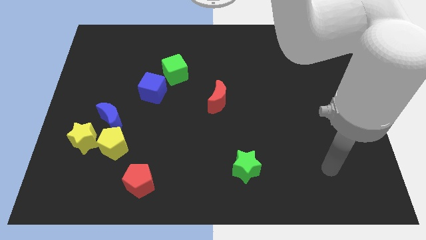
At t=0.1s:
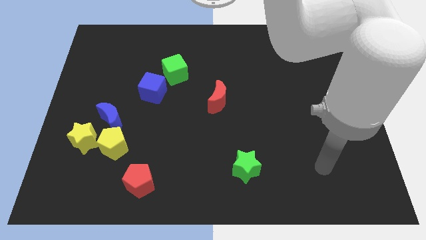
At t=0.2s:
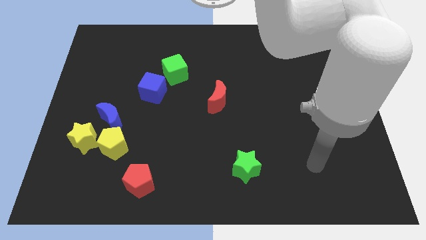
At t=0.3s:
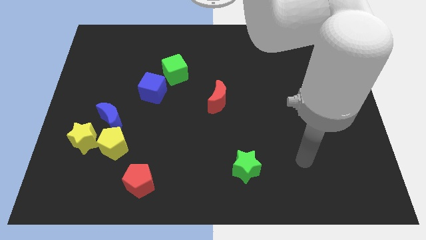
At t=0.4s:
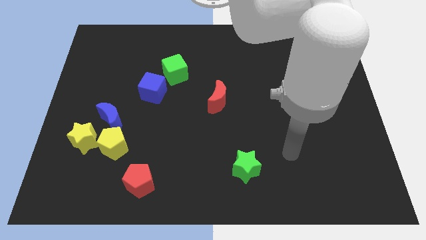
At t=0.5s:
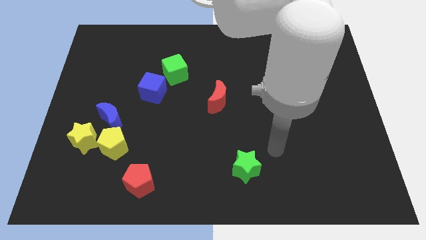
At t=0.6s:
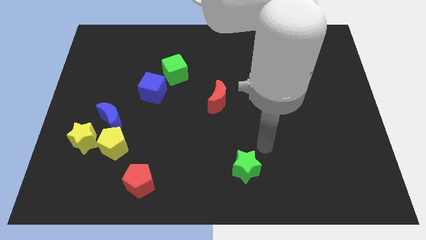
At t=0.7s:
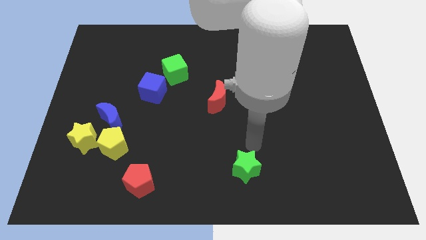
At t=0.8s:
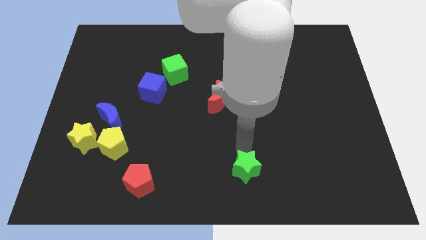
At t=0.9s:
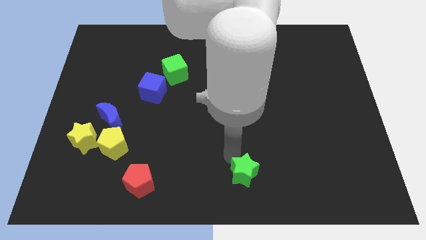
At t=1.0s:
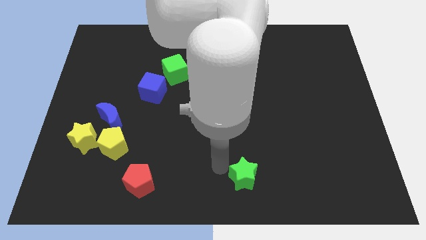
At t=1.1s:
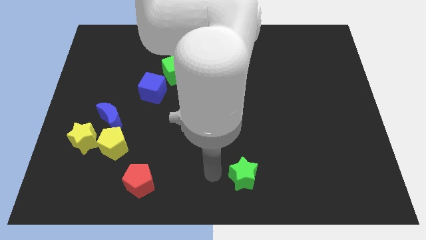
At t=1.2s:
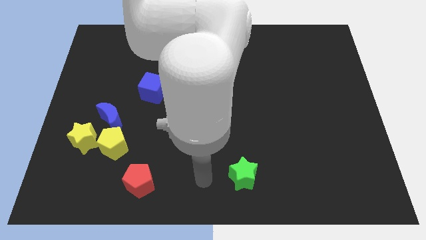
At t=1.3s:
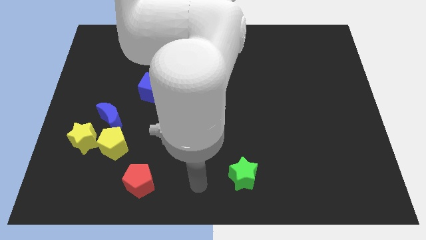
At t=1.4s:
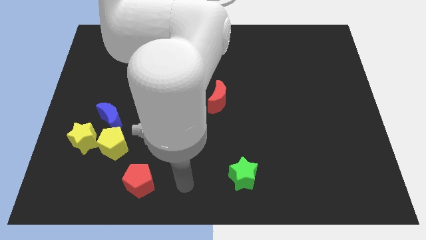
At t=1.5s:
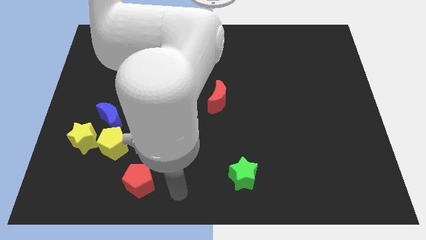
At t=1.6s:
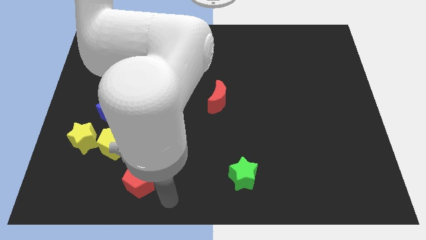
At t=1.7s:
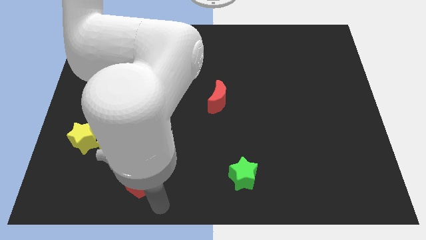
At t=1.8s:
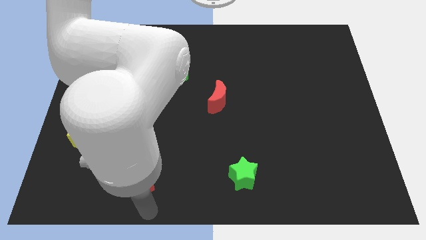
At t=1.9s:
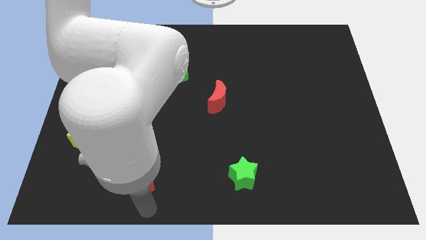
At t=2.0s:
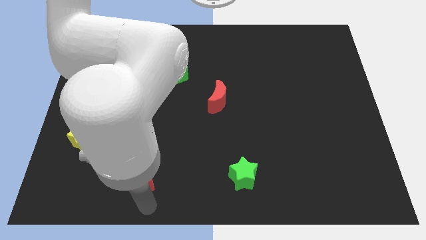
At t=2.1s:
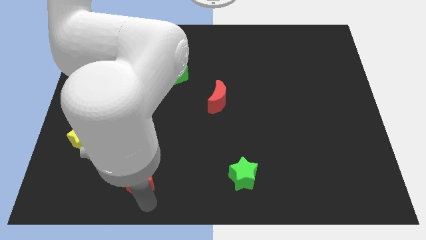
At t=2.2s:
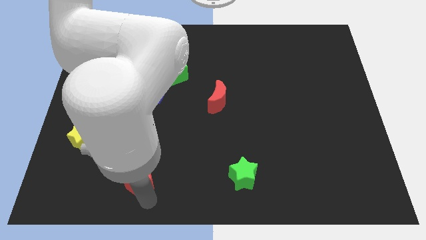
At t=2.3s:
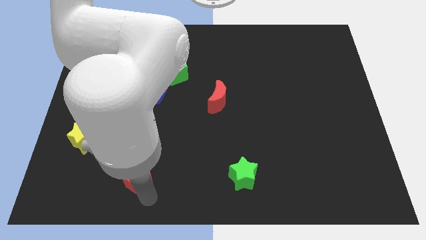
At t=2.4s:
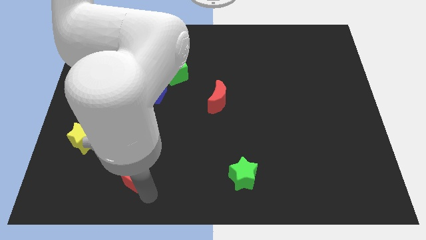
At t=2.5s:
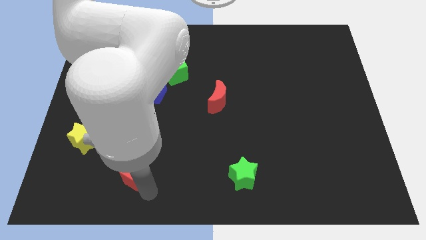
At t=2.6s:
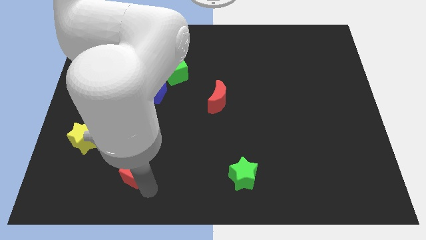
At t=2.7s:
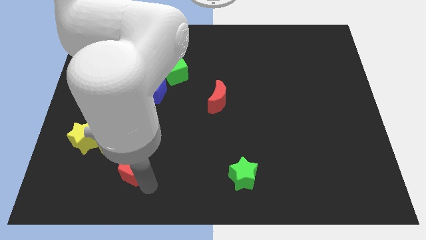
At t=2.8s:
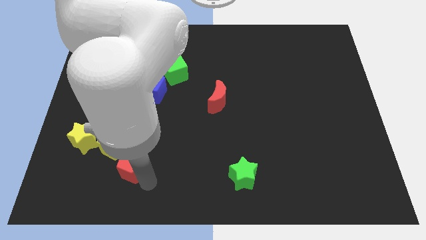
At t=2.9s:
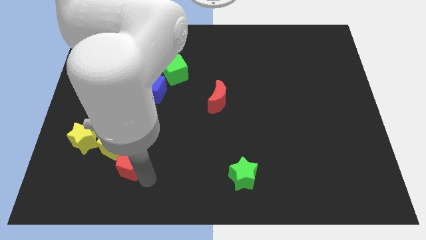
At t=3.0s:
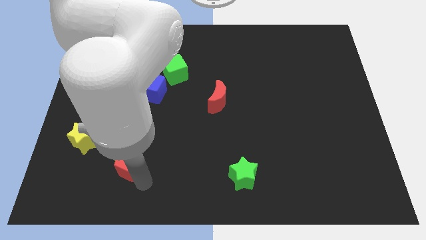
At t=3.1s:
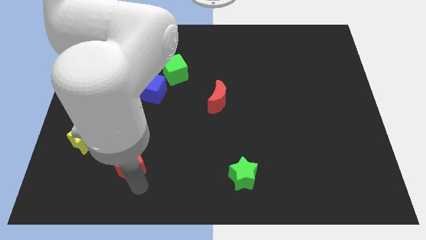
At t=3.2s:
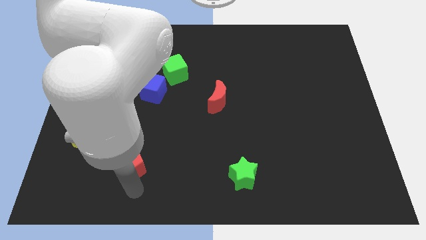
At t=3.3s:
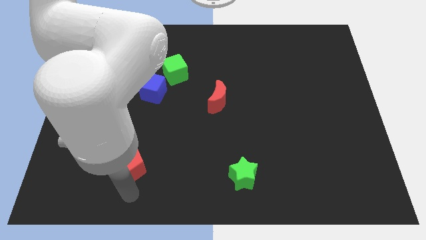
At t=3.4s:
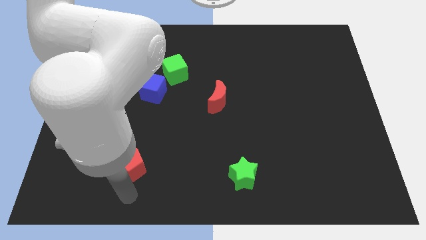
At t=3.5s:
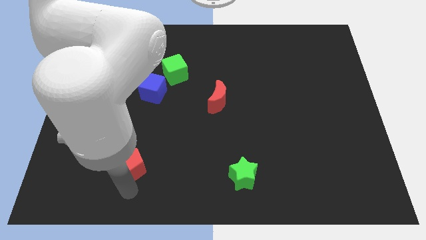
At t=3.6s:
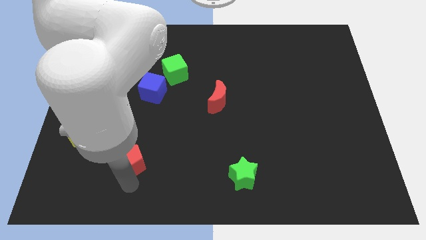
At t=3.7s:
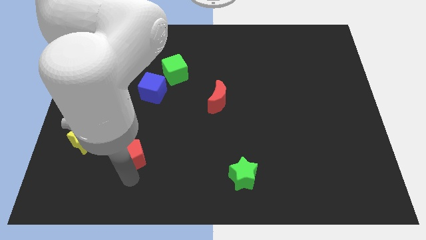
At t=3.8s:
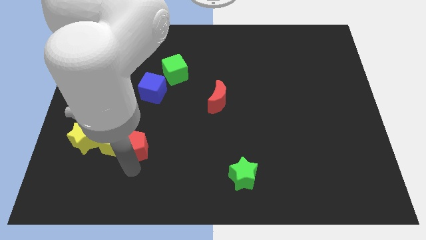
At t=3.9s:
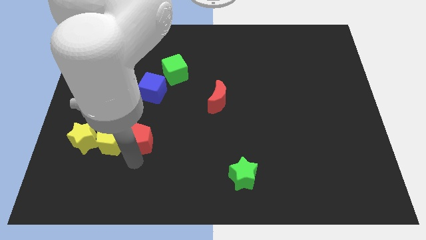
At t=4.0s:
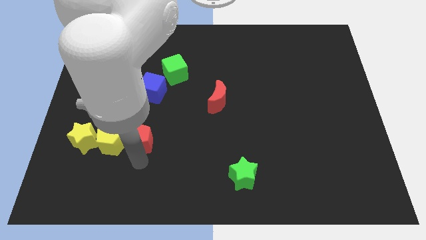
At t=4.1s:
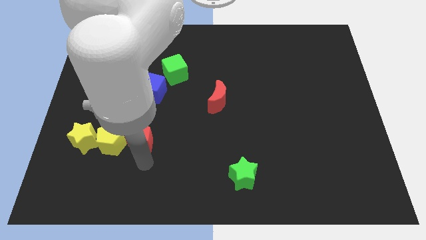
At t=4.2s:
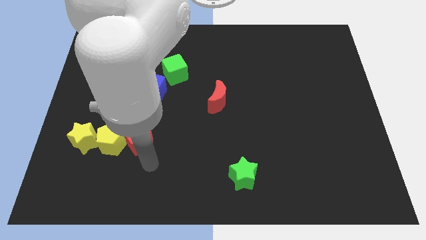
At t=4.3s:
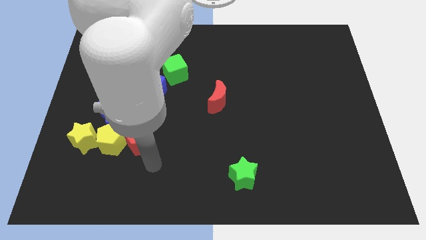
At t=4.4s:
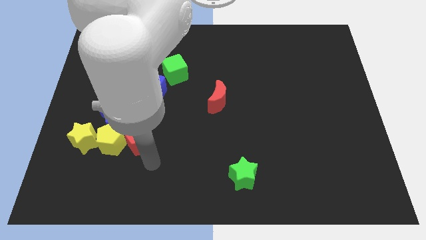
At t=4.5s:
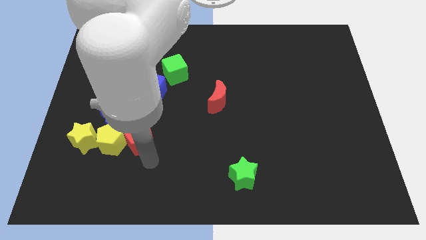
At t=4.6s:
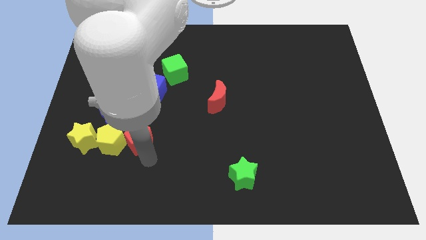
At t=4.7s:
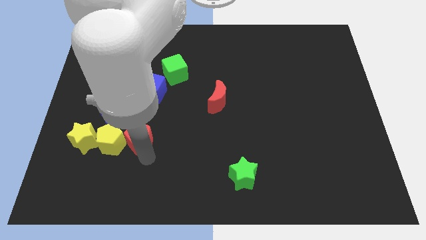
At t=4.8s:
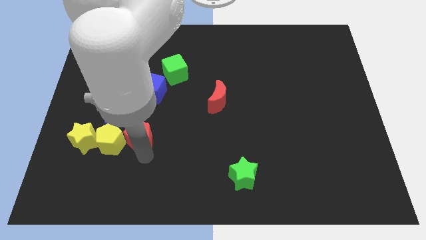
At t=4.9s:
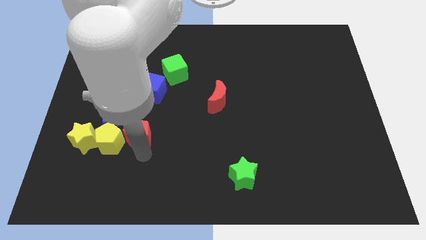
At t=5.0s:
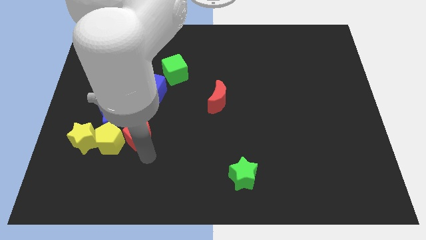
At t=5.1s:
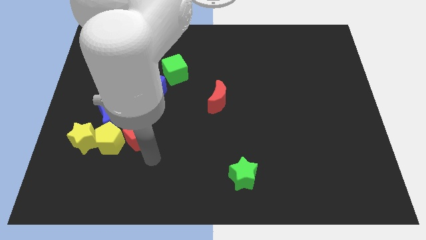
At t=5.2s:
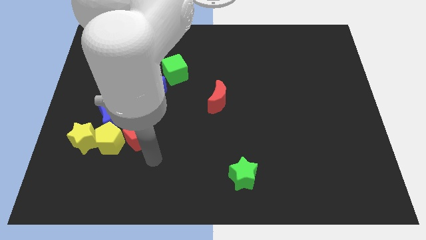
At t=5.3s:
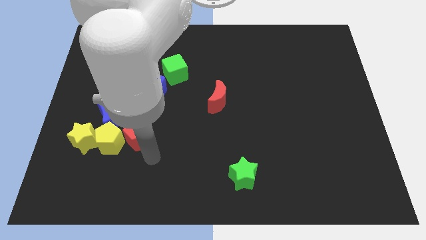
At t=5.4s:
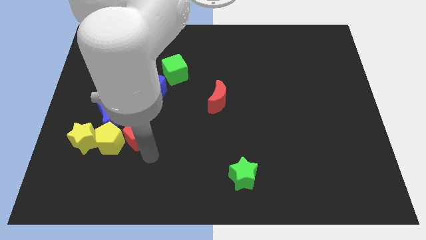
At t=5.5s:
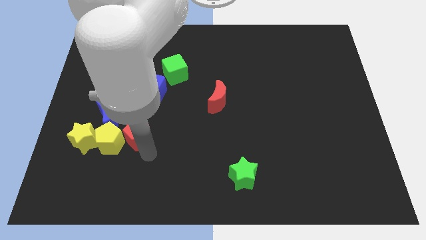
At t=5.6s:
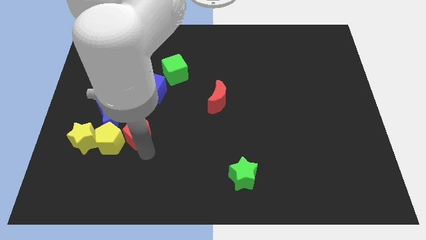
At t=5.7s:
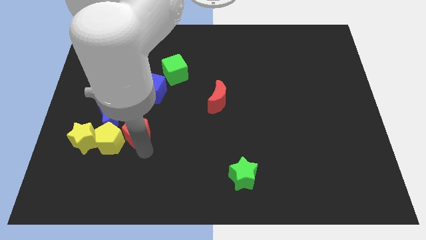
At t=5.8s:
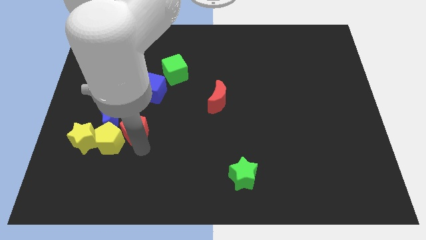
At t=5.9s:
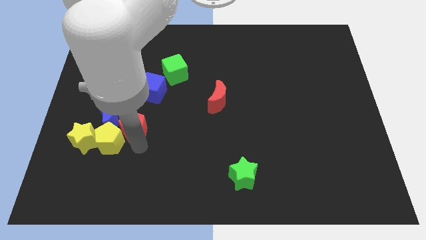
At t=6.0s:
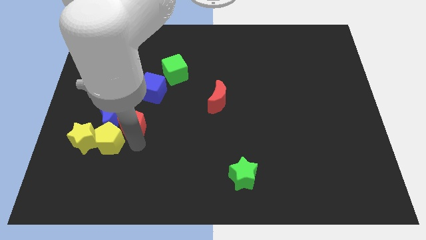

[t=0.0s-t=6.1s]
put the red pentagon to the blue moon

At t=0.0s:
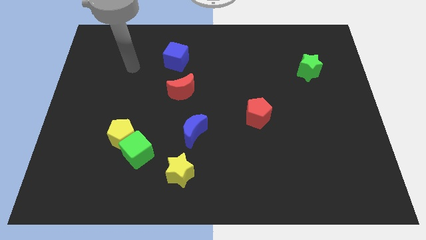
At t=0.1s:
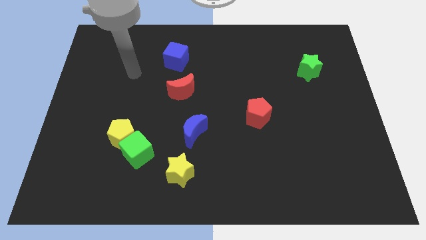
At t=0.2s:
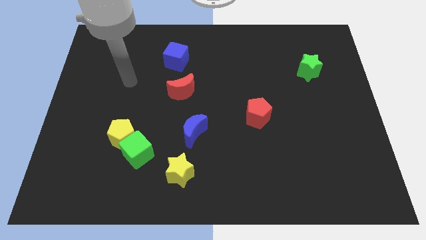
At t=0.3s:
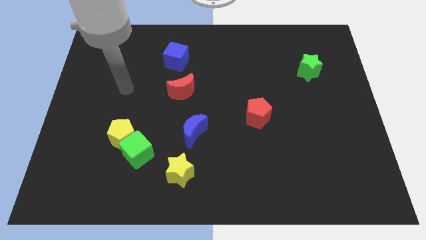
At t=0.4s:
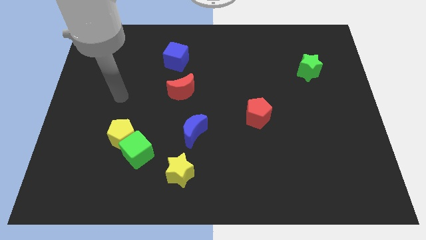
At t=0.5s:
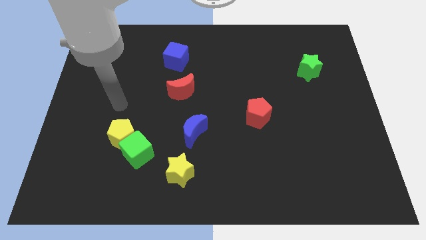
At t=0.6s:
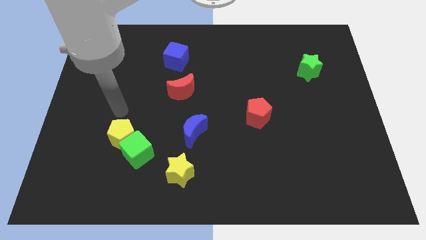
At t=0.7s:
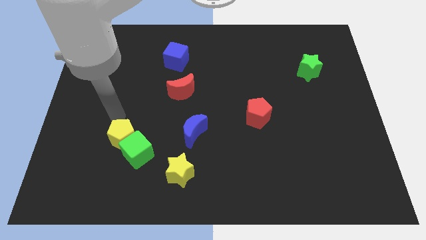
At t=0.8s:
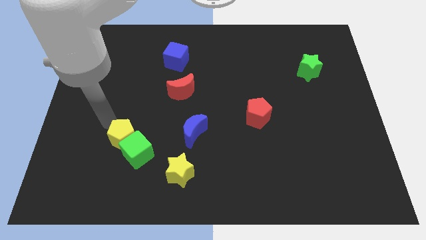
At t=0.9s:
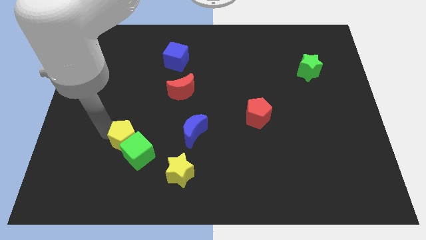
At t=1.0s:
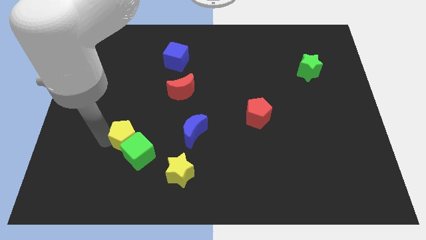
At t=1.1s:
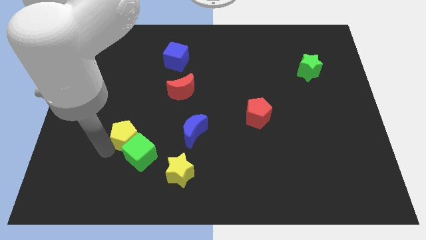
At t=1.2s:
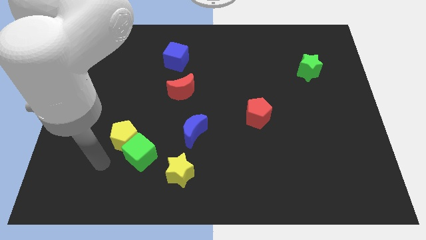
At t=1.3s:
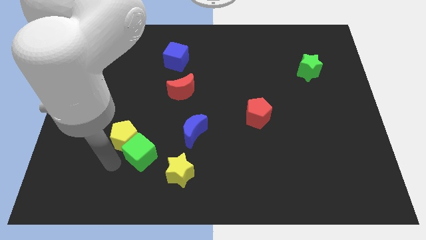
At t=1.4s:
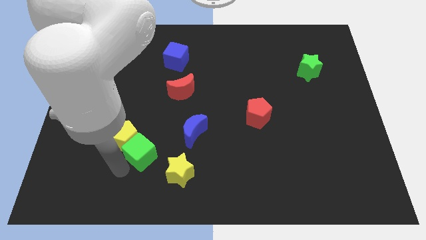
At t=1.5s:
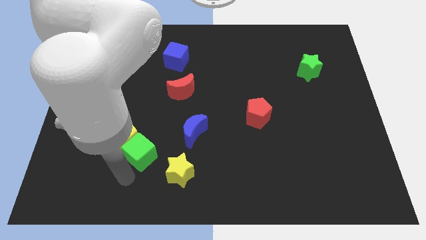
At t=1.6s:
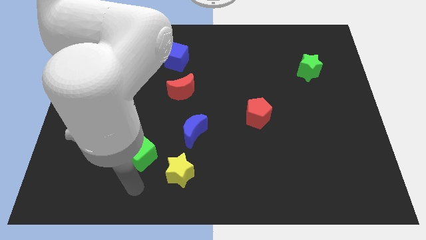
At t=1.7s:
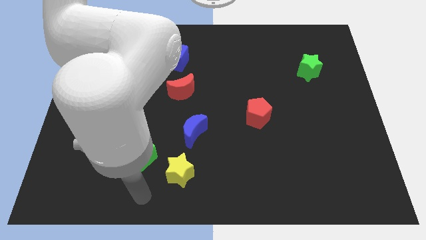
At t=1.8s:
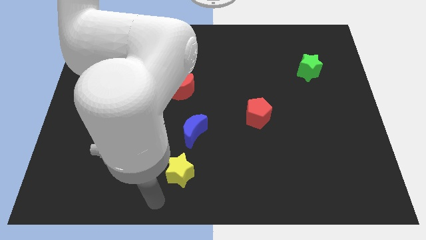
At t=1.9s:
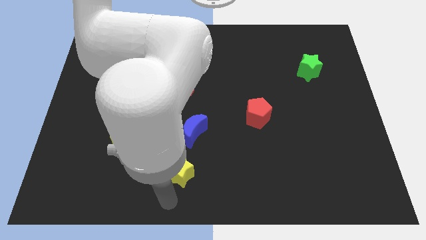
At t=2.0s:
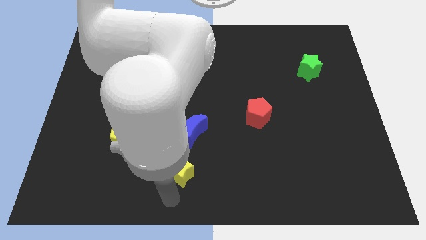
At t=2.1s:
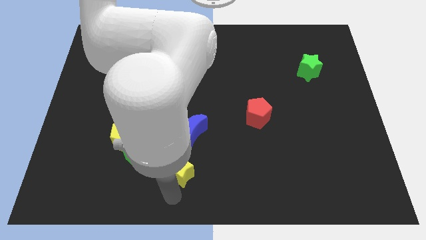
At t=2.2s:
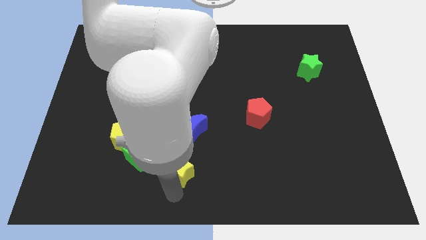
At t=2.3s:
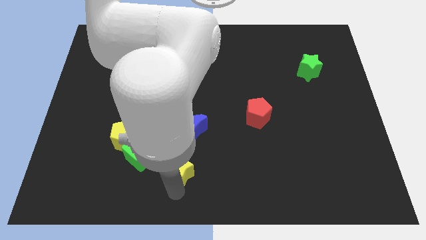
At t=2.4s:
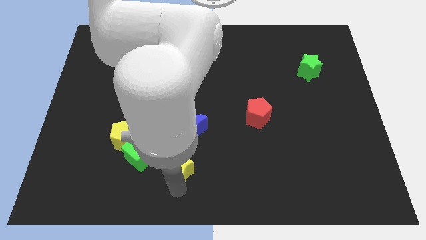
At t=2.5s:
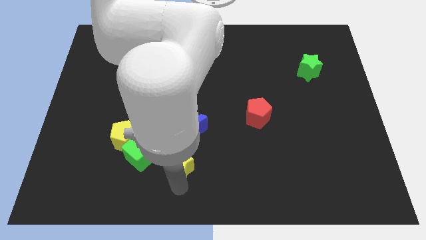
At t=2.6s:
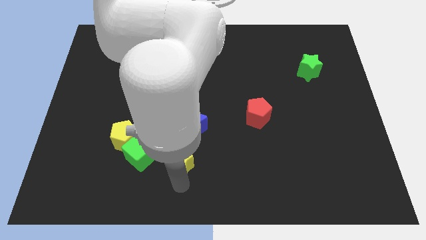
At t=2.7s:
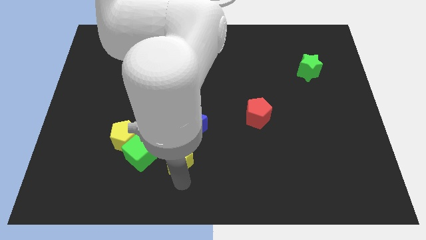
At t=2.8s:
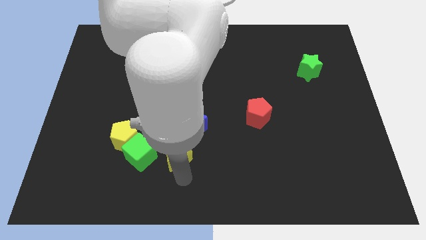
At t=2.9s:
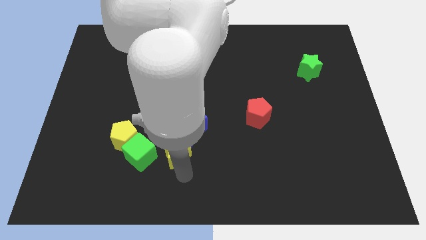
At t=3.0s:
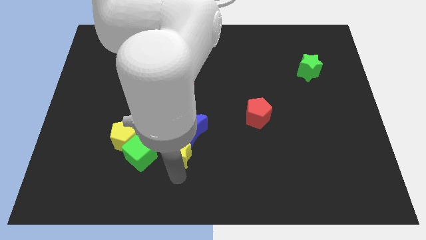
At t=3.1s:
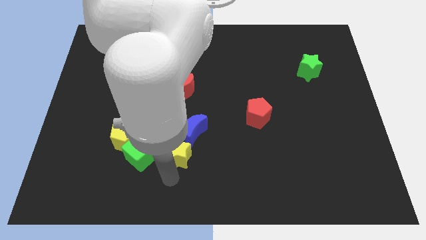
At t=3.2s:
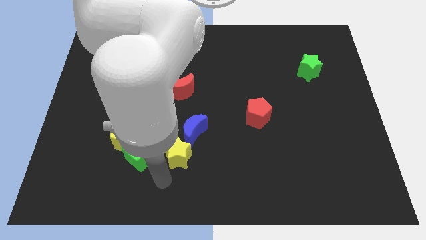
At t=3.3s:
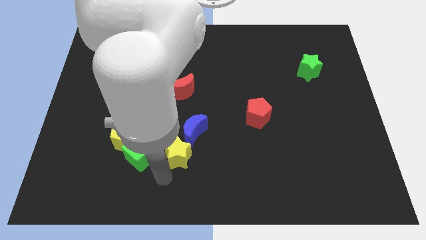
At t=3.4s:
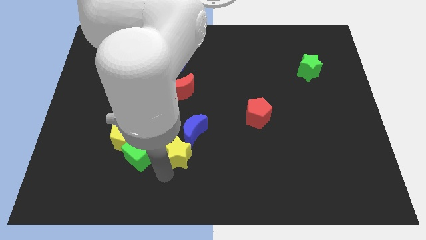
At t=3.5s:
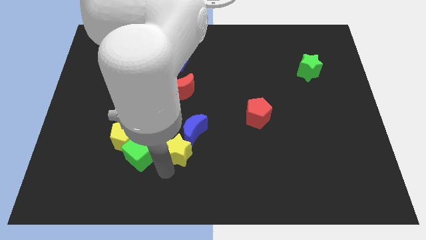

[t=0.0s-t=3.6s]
slide the yellow star next to the blue moon
